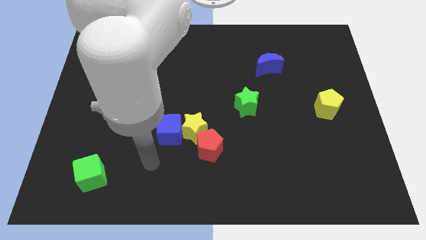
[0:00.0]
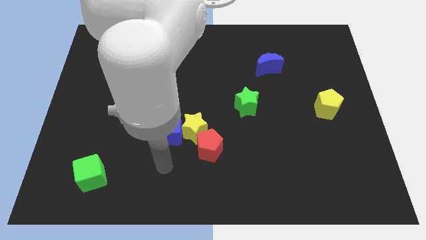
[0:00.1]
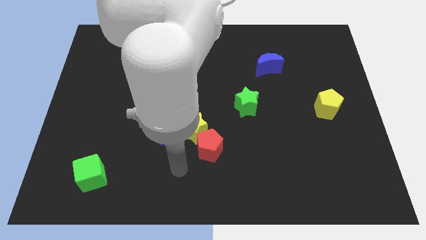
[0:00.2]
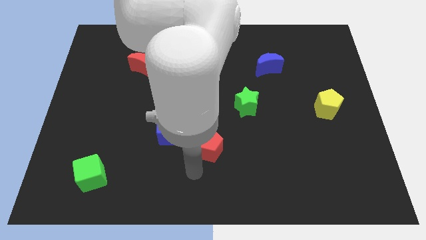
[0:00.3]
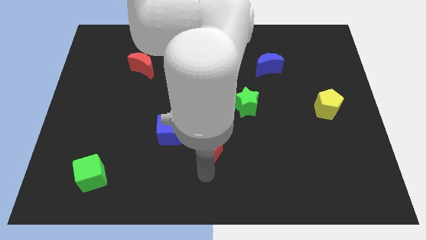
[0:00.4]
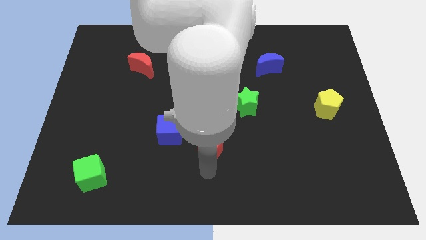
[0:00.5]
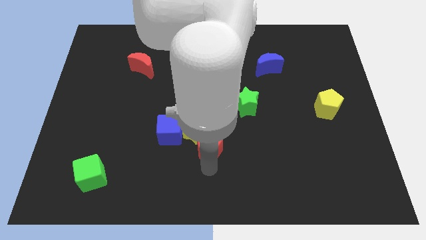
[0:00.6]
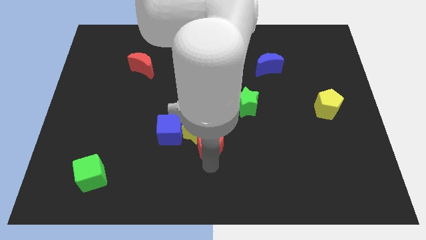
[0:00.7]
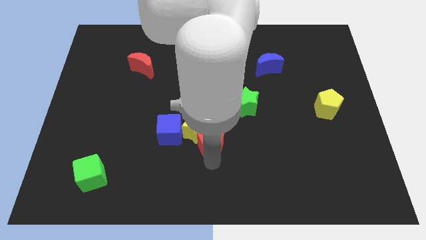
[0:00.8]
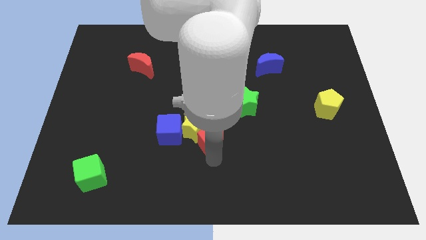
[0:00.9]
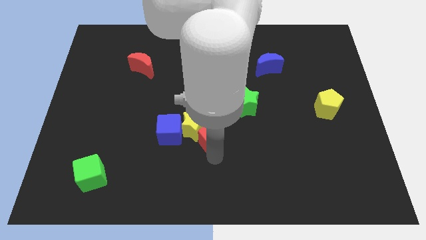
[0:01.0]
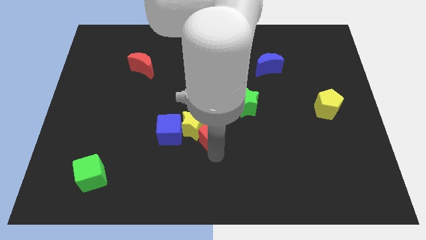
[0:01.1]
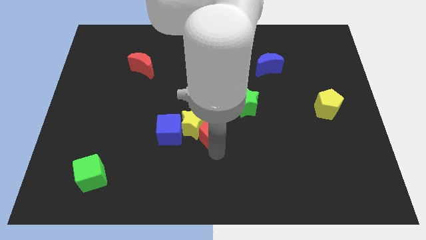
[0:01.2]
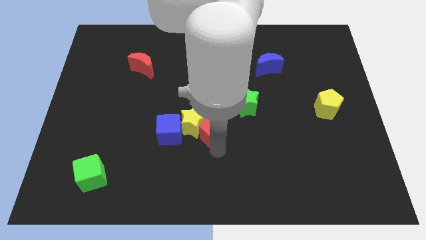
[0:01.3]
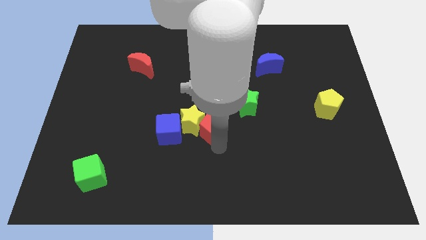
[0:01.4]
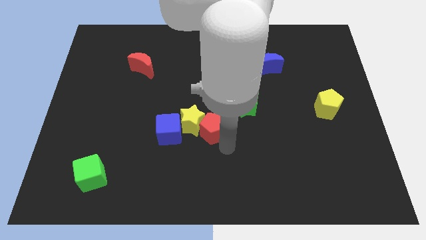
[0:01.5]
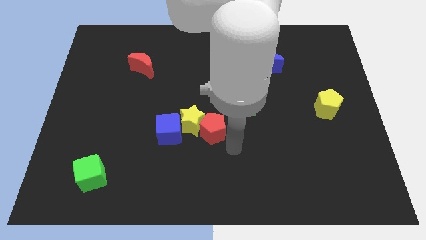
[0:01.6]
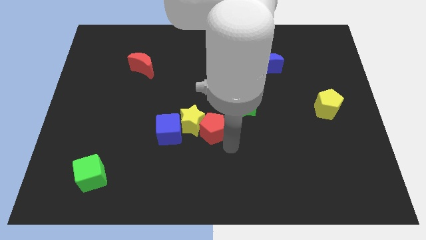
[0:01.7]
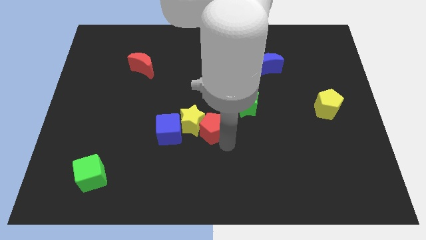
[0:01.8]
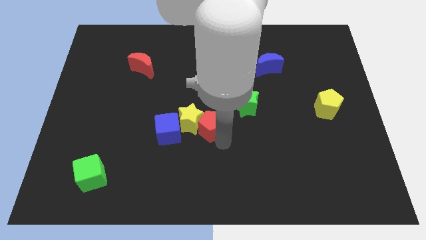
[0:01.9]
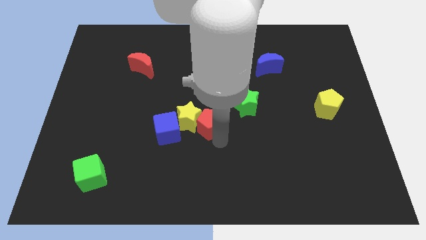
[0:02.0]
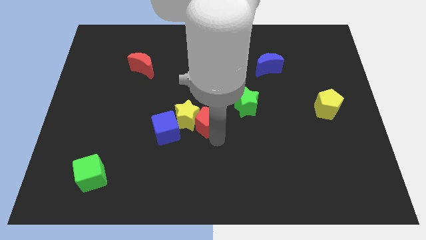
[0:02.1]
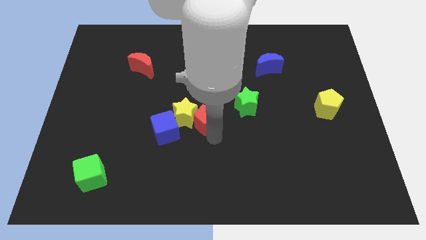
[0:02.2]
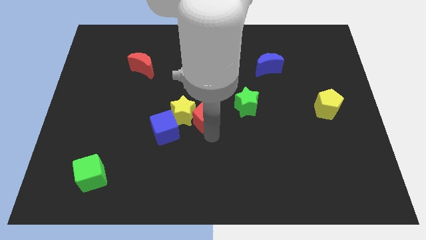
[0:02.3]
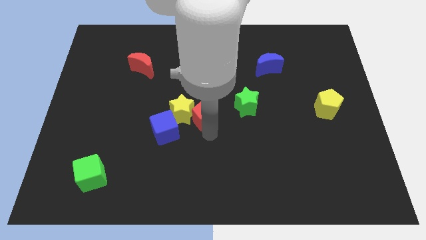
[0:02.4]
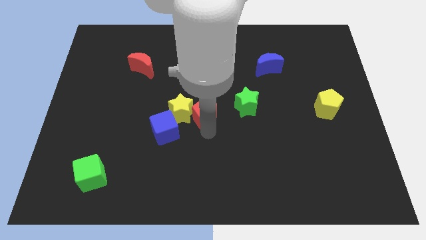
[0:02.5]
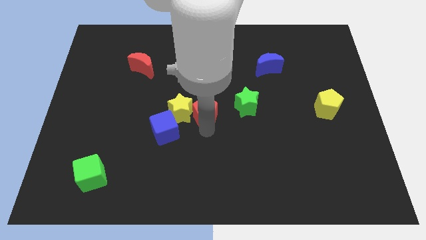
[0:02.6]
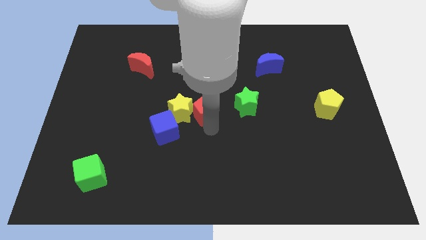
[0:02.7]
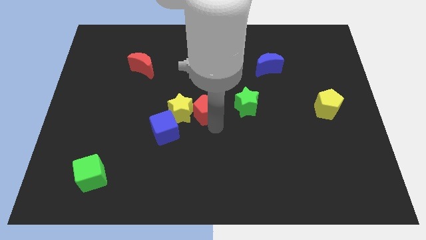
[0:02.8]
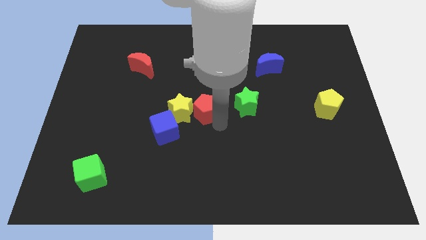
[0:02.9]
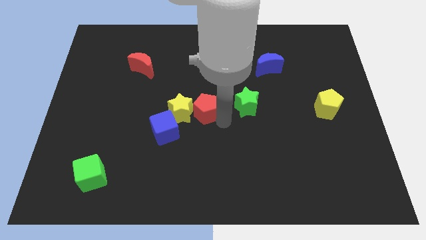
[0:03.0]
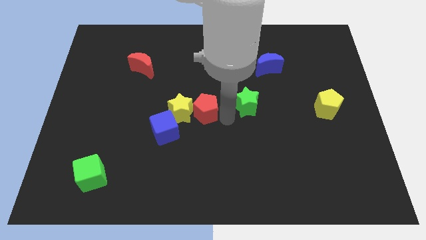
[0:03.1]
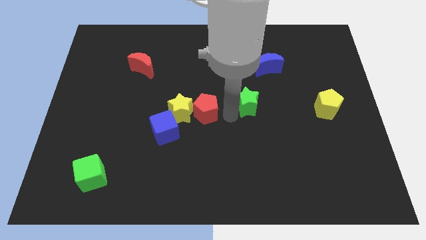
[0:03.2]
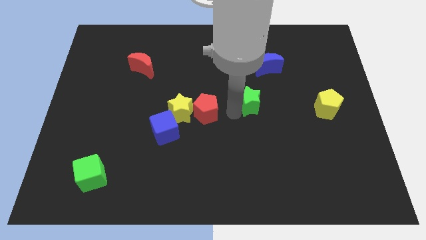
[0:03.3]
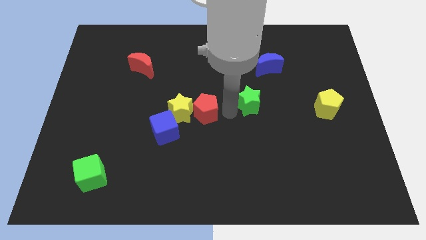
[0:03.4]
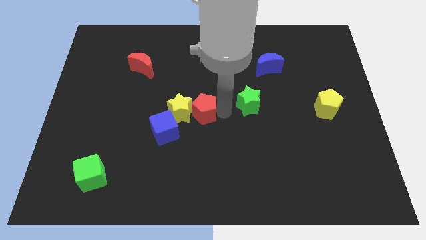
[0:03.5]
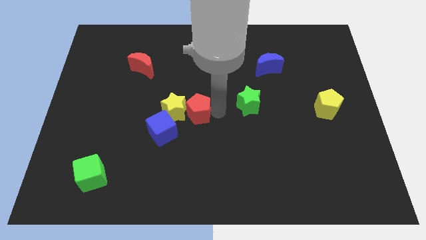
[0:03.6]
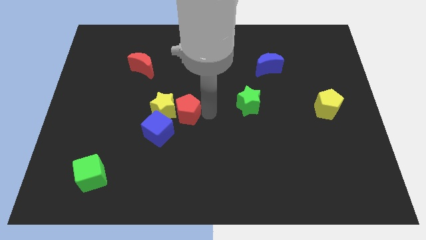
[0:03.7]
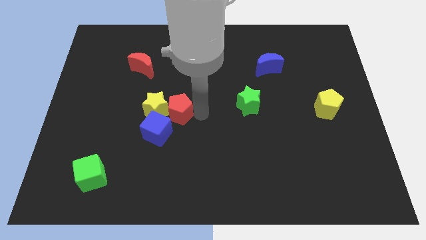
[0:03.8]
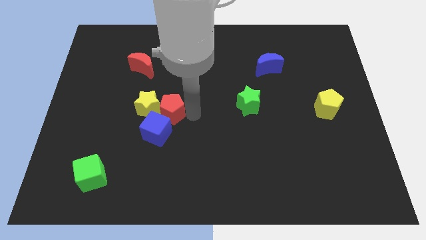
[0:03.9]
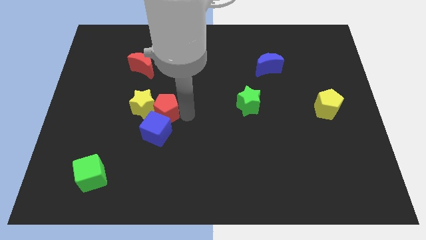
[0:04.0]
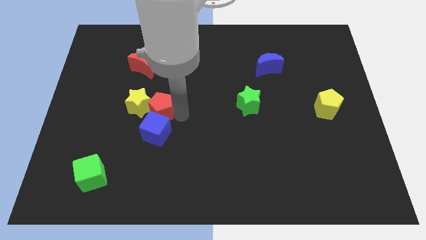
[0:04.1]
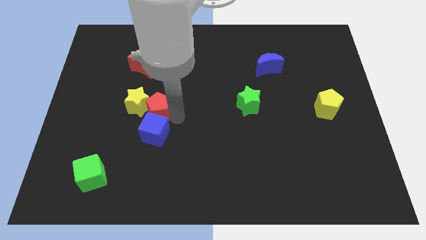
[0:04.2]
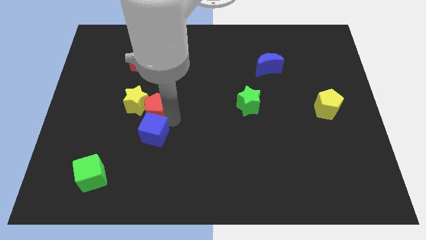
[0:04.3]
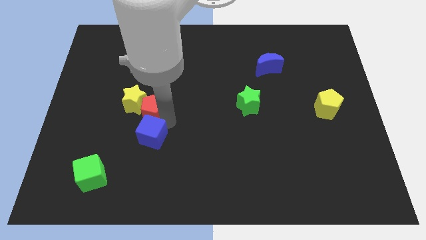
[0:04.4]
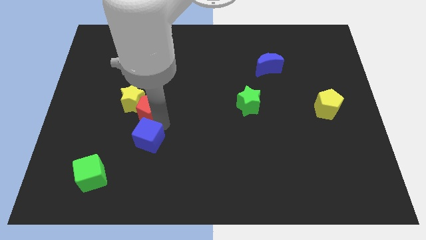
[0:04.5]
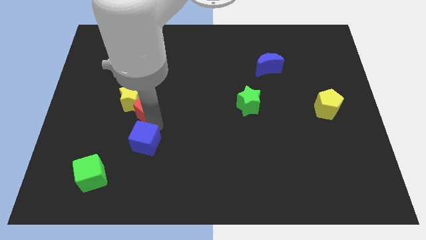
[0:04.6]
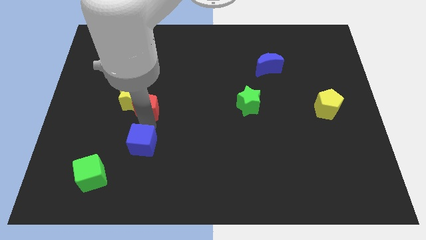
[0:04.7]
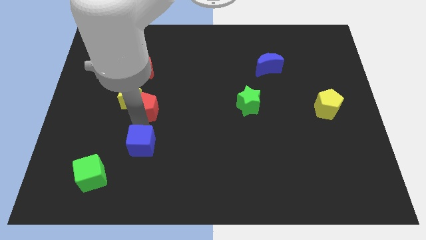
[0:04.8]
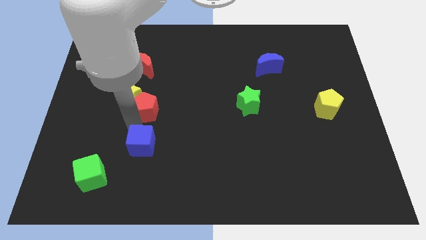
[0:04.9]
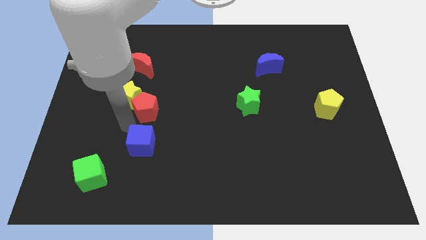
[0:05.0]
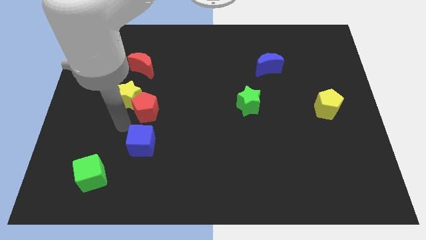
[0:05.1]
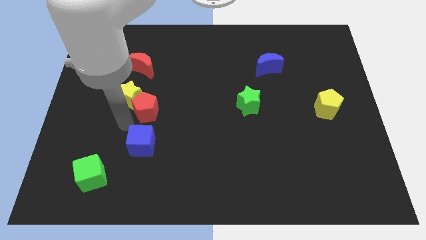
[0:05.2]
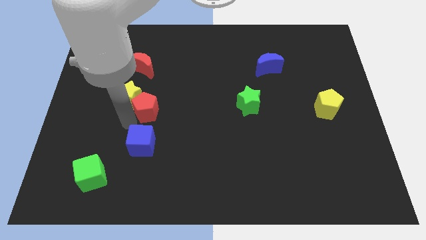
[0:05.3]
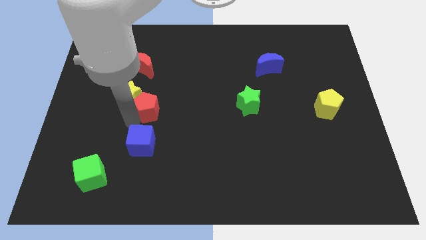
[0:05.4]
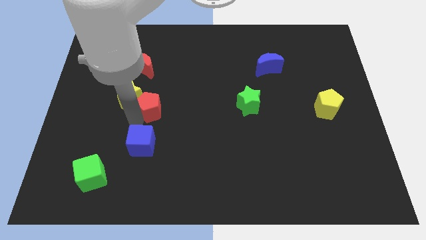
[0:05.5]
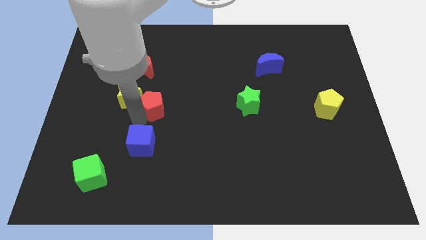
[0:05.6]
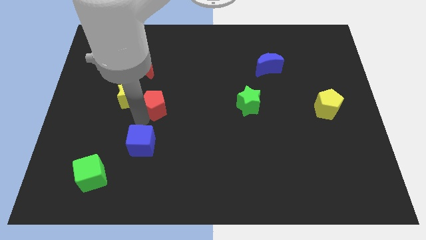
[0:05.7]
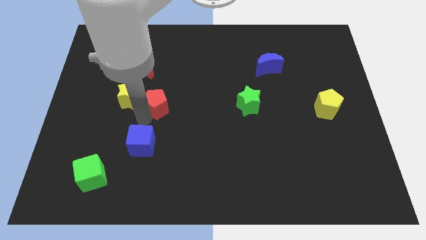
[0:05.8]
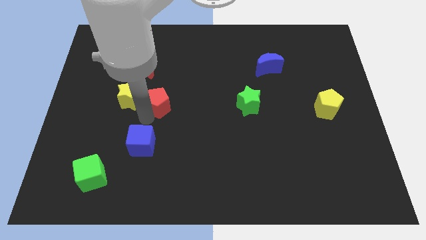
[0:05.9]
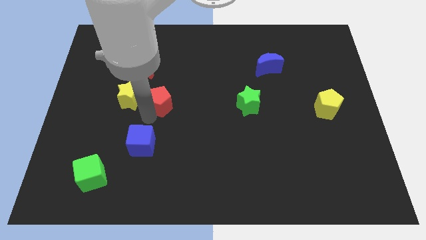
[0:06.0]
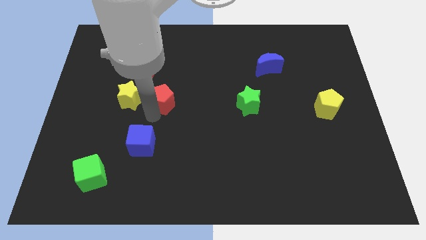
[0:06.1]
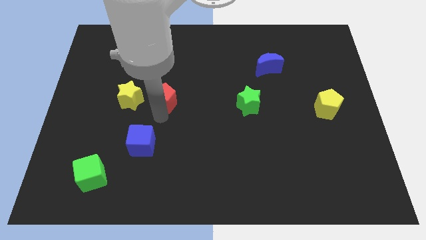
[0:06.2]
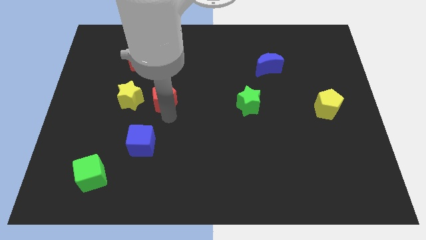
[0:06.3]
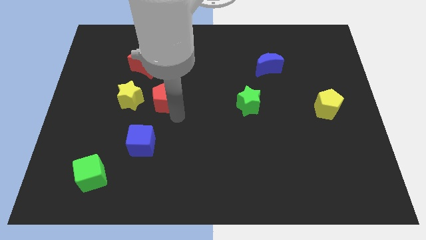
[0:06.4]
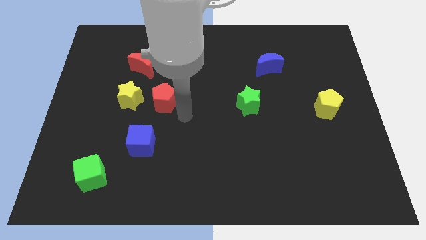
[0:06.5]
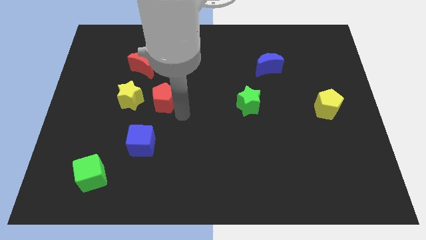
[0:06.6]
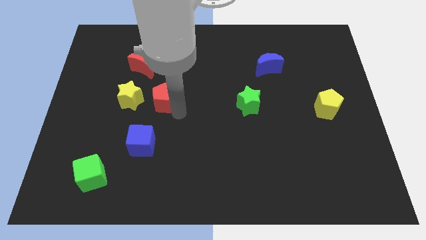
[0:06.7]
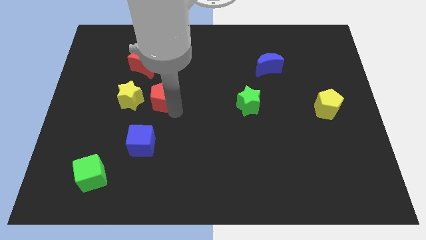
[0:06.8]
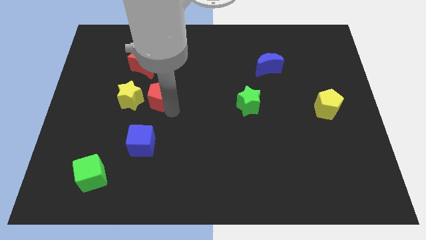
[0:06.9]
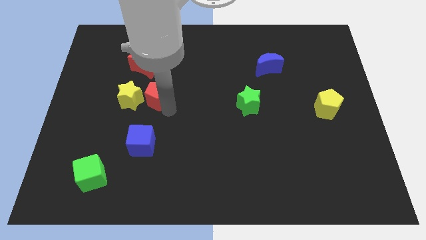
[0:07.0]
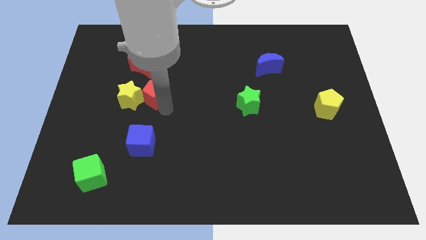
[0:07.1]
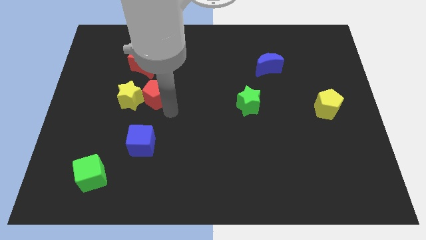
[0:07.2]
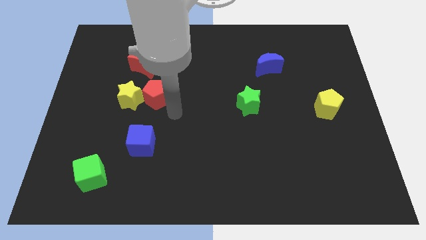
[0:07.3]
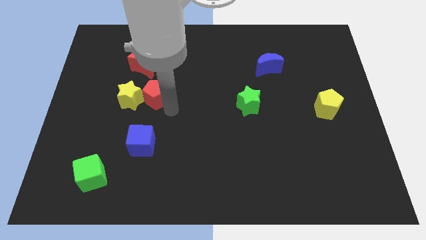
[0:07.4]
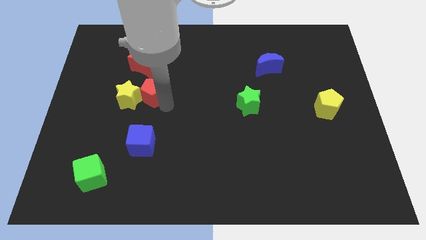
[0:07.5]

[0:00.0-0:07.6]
push the red pentagon diagonally upwards and left

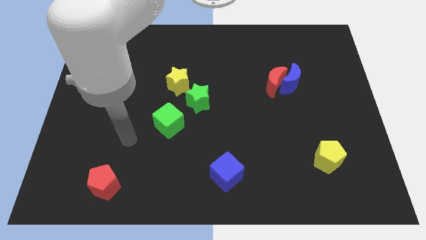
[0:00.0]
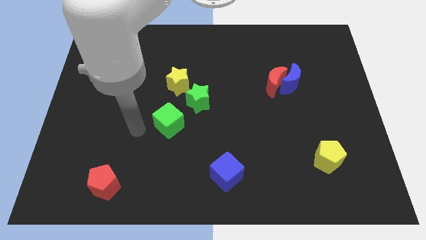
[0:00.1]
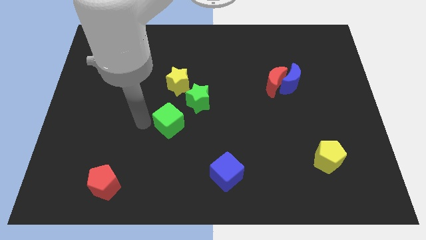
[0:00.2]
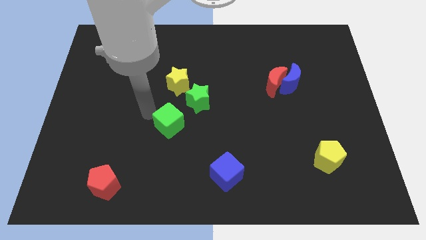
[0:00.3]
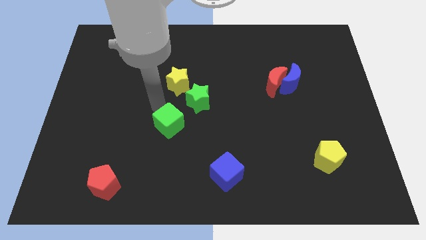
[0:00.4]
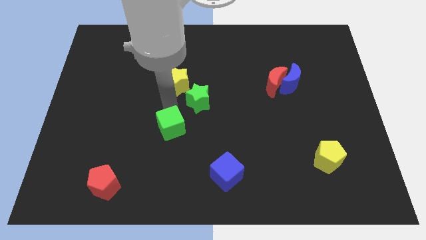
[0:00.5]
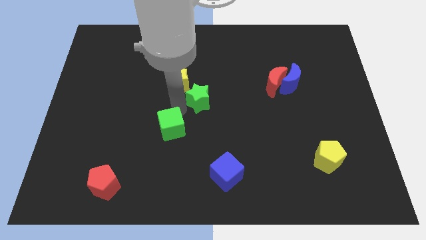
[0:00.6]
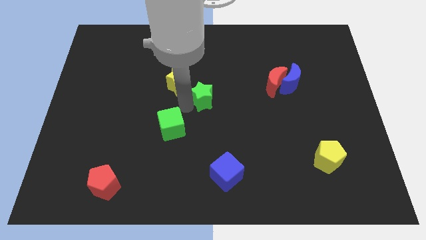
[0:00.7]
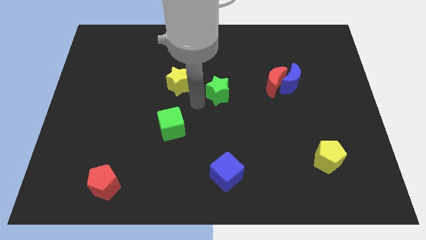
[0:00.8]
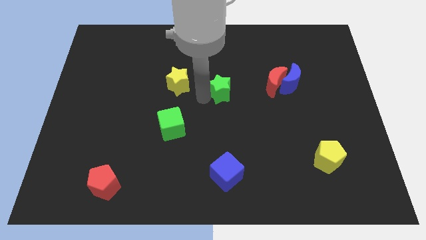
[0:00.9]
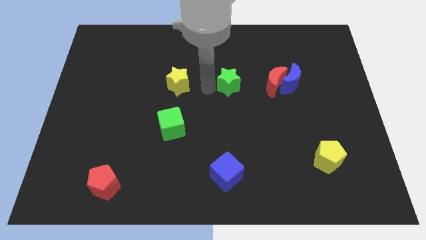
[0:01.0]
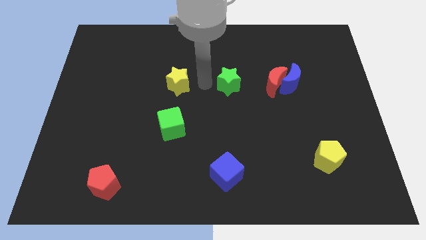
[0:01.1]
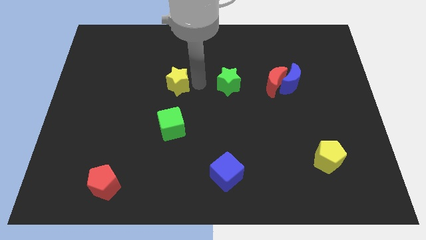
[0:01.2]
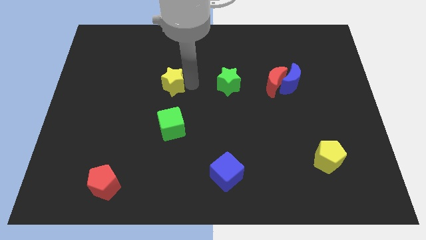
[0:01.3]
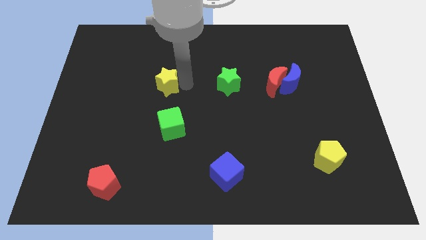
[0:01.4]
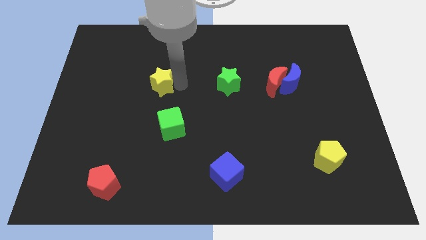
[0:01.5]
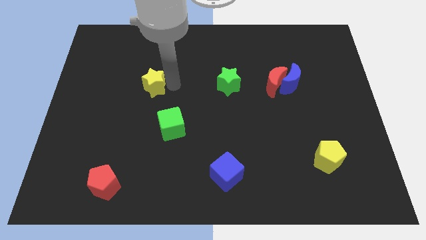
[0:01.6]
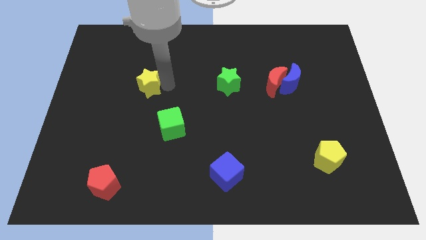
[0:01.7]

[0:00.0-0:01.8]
move the yellow star somewhat to the left
